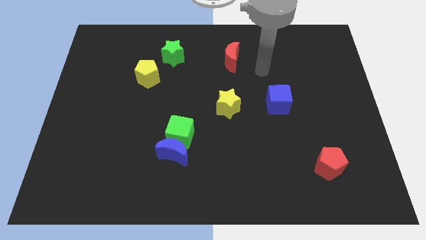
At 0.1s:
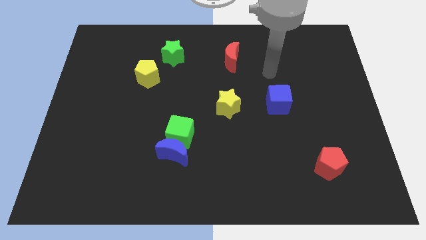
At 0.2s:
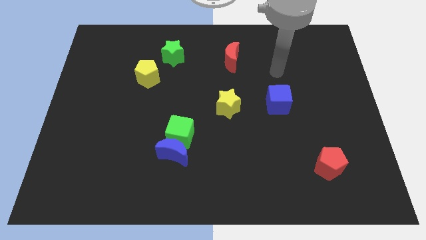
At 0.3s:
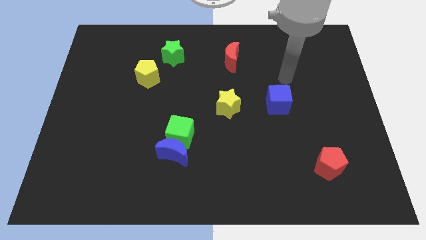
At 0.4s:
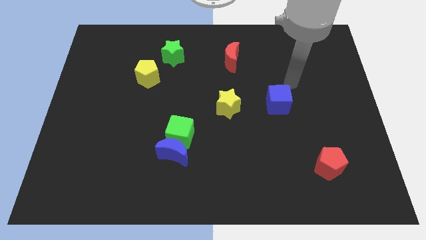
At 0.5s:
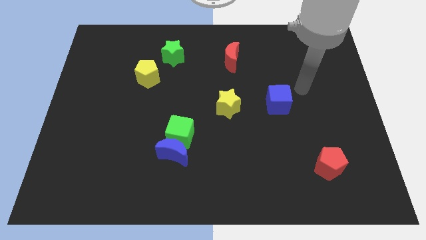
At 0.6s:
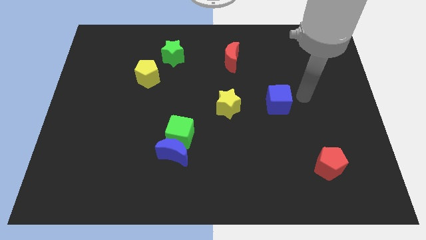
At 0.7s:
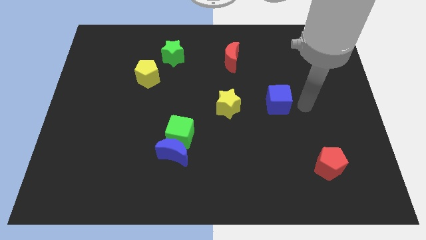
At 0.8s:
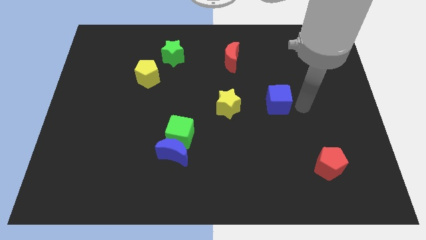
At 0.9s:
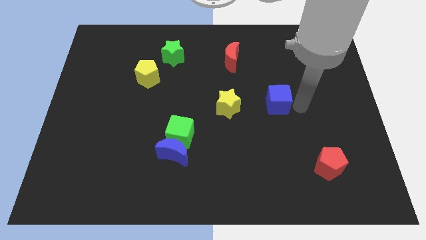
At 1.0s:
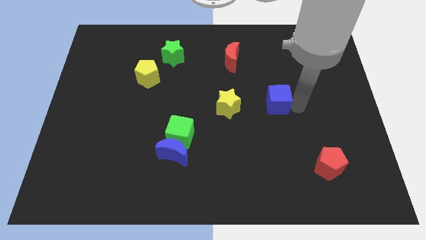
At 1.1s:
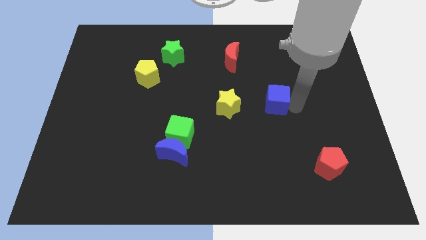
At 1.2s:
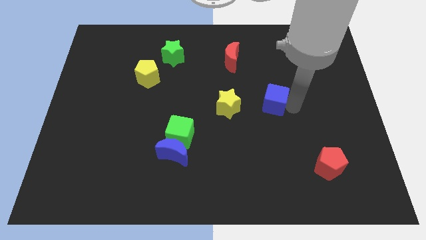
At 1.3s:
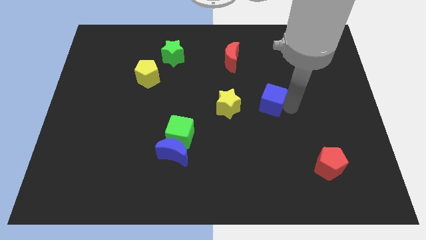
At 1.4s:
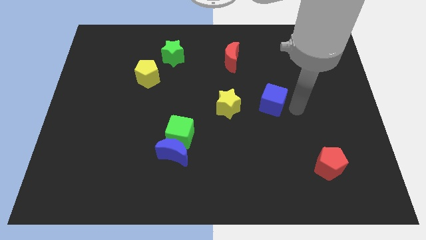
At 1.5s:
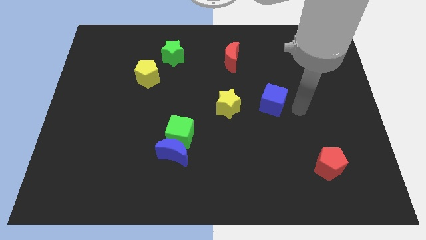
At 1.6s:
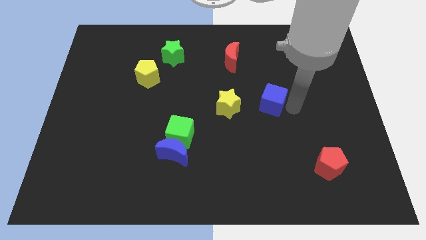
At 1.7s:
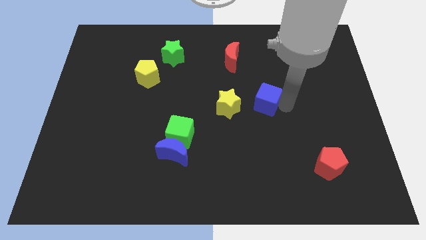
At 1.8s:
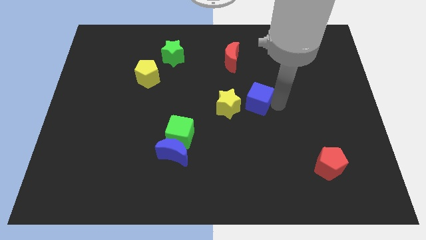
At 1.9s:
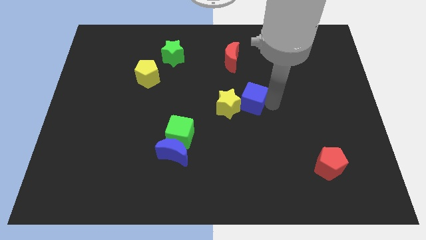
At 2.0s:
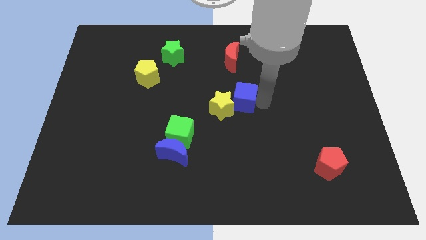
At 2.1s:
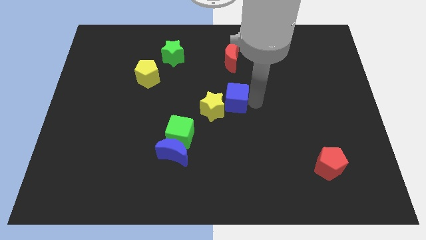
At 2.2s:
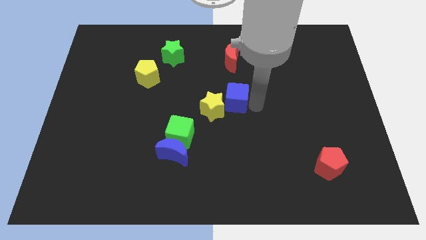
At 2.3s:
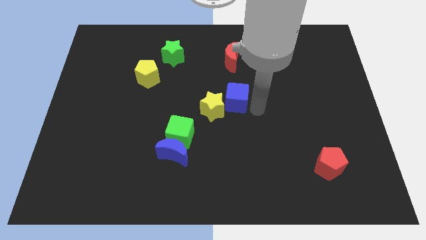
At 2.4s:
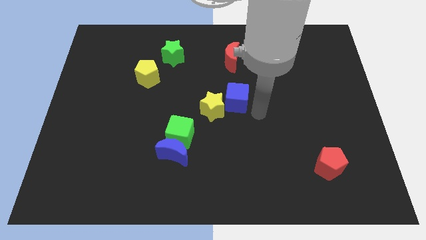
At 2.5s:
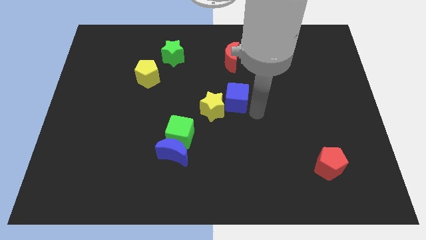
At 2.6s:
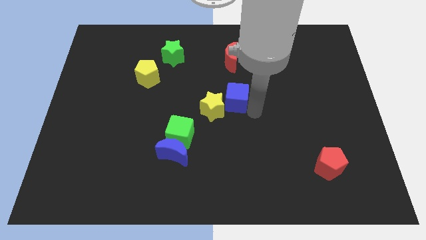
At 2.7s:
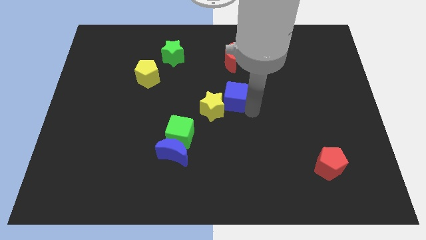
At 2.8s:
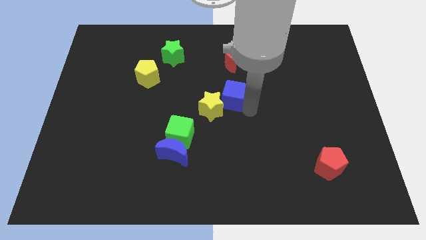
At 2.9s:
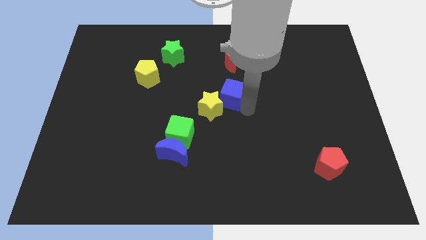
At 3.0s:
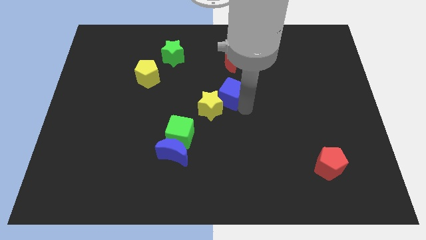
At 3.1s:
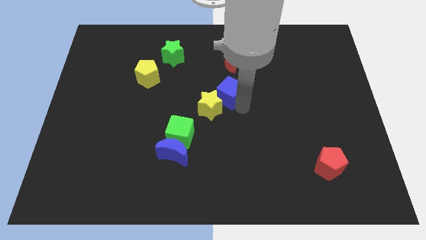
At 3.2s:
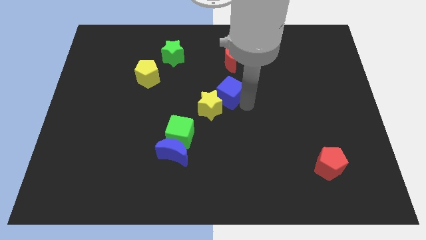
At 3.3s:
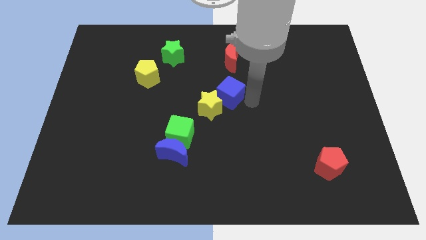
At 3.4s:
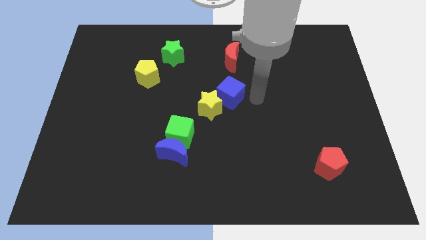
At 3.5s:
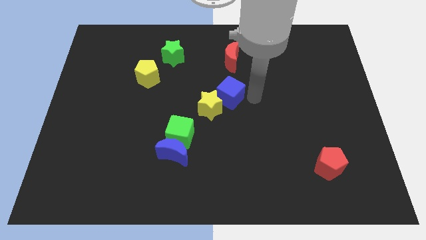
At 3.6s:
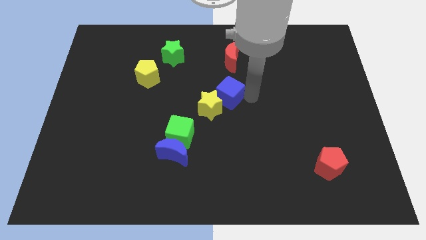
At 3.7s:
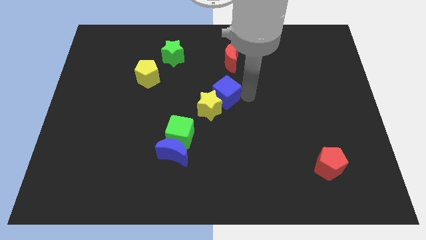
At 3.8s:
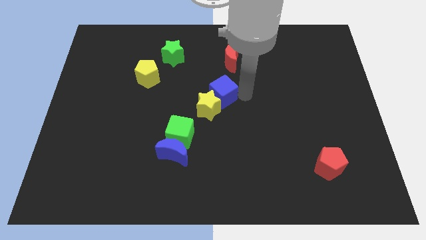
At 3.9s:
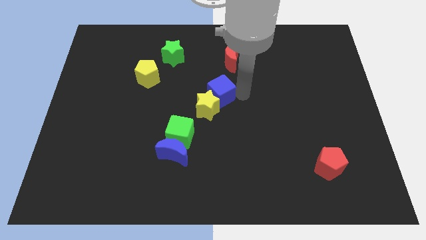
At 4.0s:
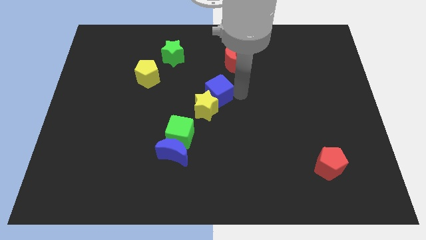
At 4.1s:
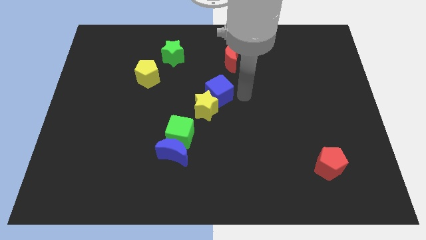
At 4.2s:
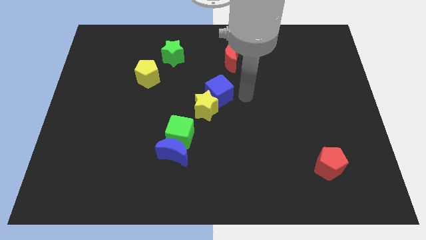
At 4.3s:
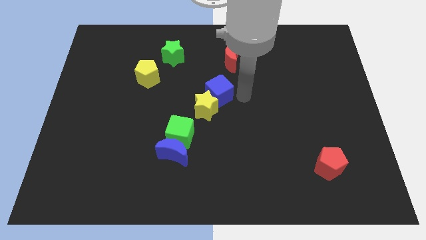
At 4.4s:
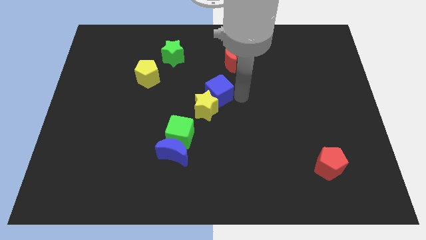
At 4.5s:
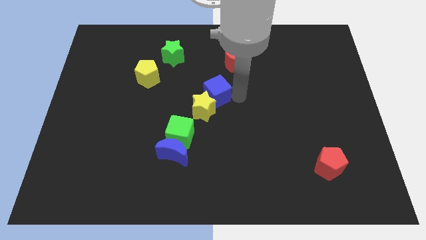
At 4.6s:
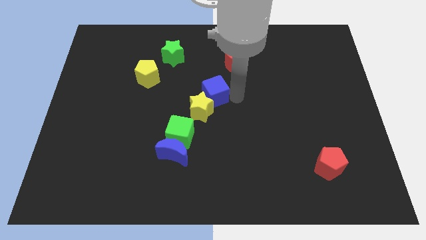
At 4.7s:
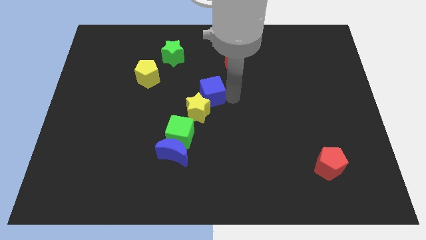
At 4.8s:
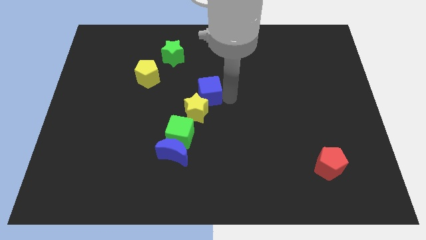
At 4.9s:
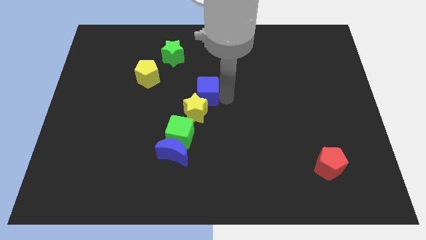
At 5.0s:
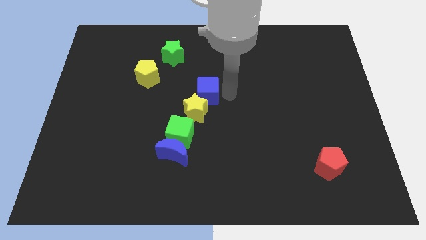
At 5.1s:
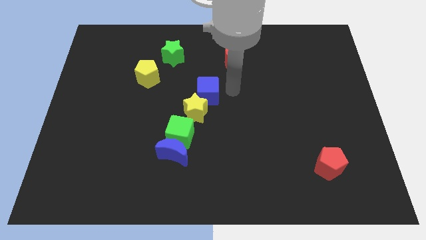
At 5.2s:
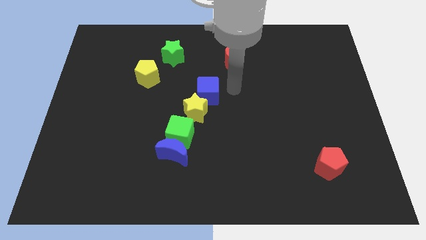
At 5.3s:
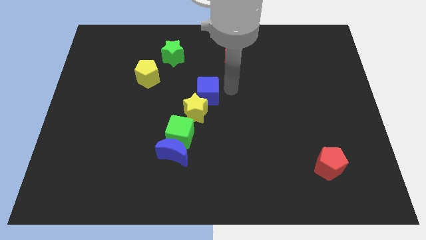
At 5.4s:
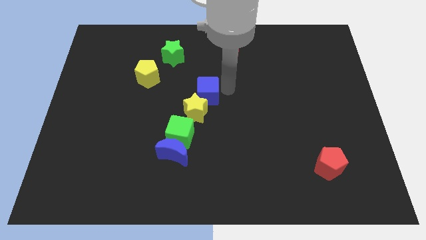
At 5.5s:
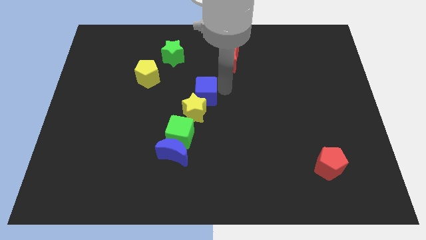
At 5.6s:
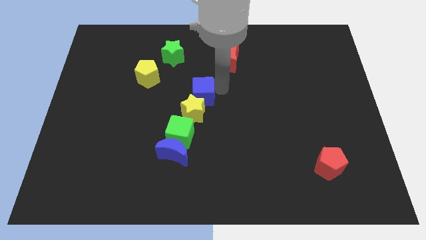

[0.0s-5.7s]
move the blue cube to the top side of the green cube
